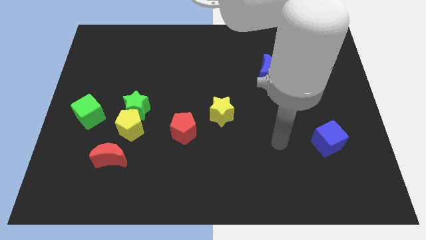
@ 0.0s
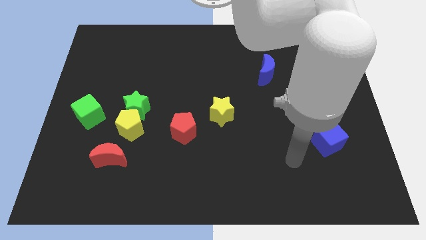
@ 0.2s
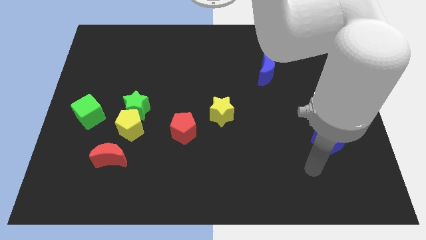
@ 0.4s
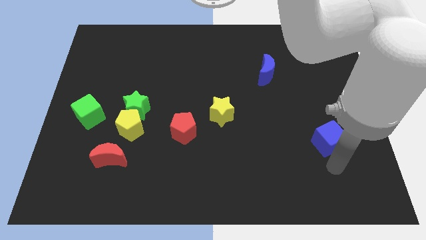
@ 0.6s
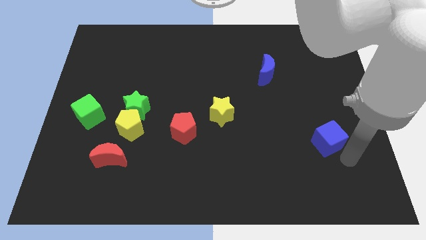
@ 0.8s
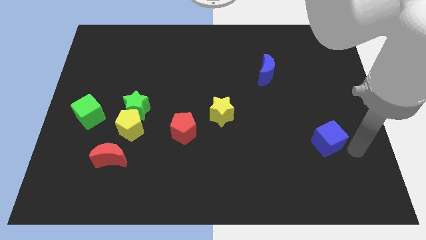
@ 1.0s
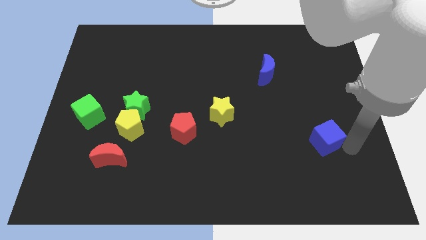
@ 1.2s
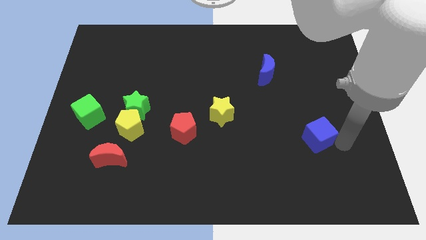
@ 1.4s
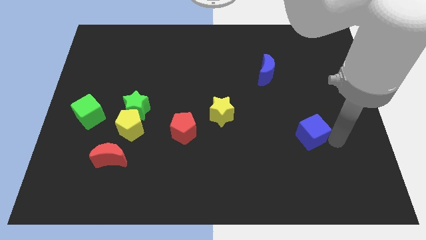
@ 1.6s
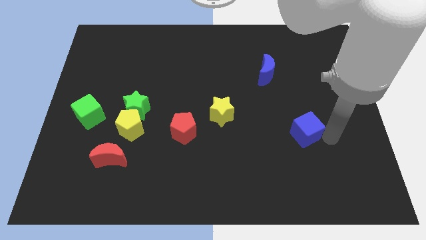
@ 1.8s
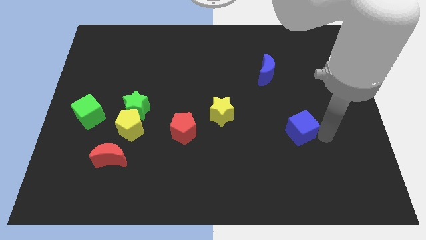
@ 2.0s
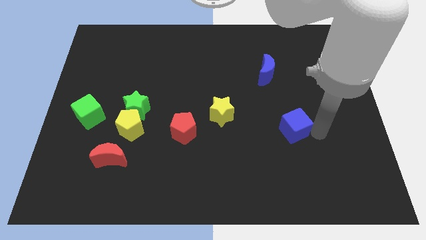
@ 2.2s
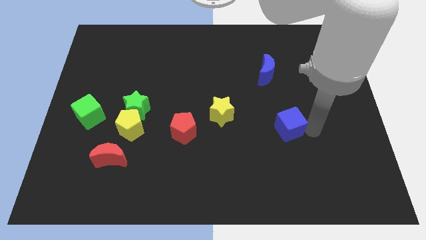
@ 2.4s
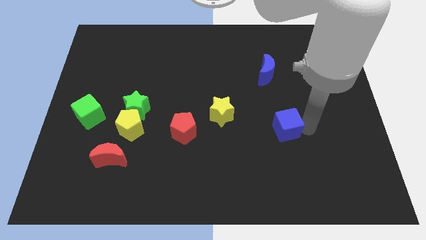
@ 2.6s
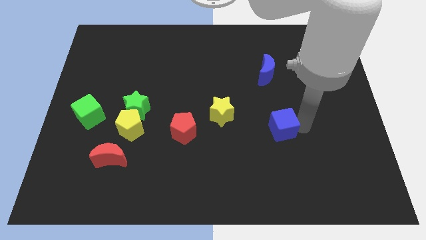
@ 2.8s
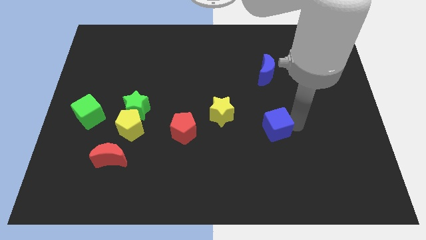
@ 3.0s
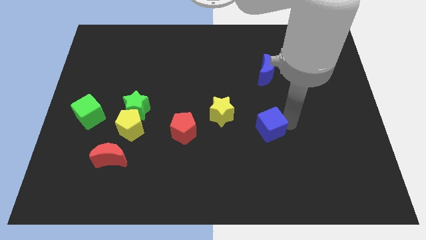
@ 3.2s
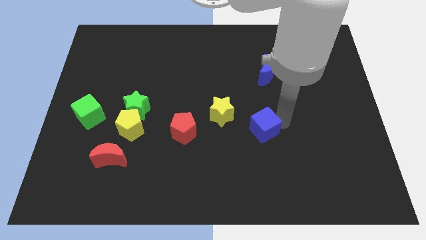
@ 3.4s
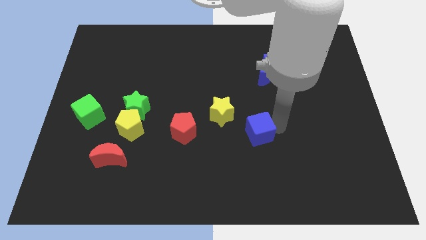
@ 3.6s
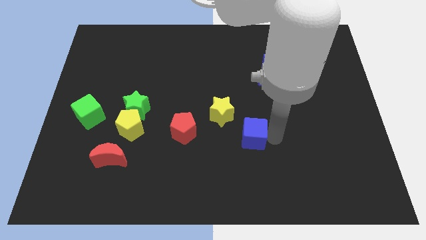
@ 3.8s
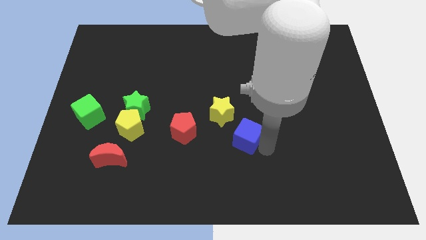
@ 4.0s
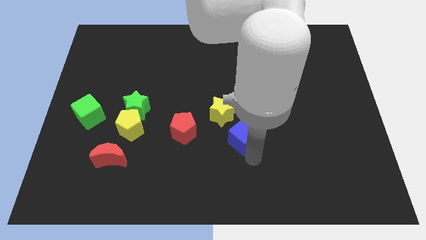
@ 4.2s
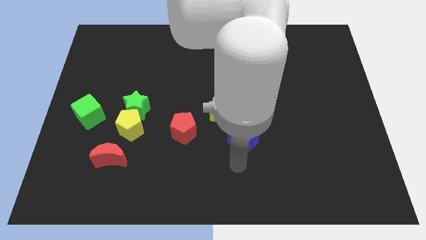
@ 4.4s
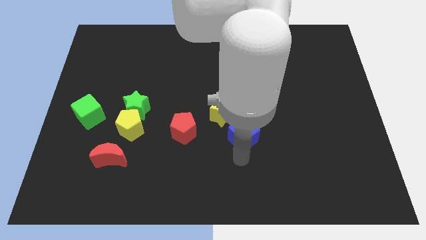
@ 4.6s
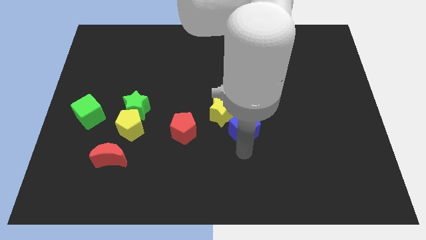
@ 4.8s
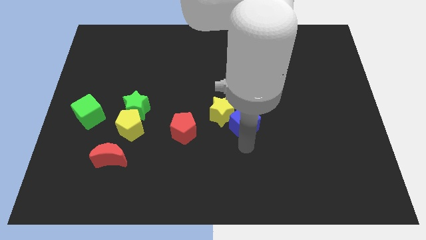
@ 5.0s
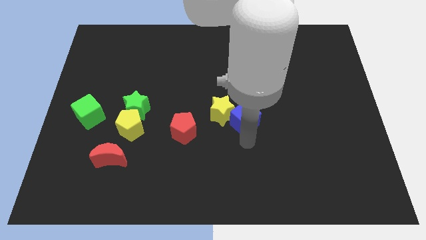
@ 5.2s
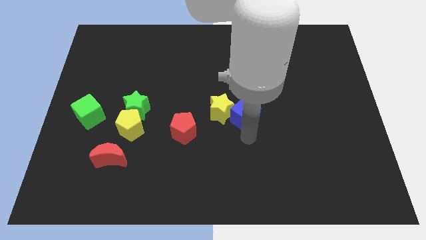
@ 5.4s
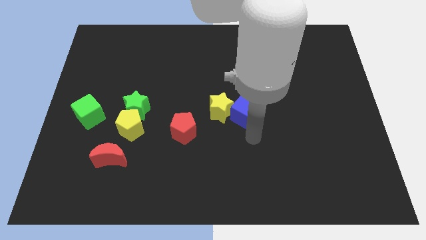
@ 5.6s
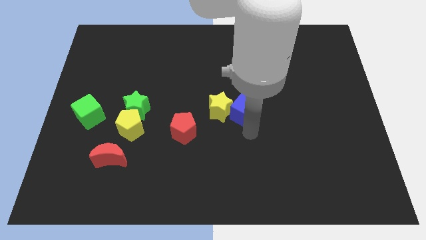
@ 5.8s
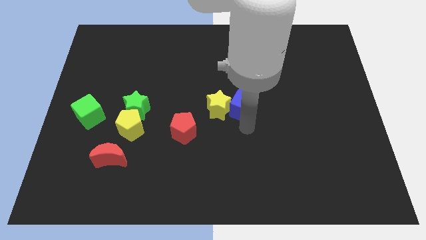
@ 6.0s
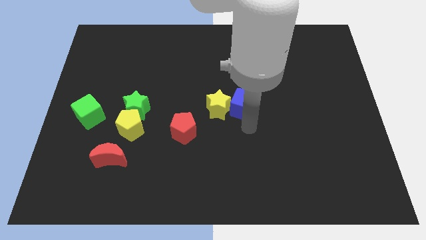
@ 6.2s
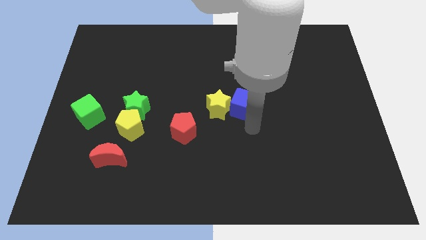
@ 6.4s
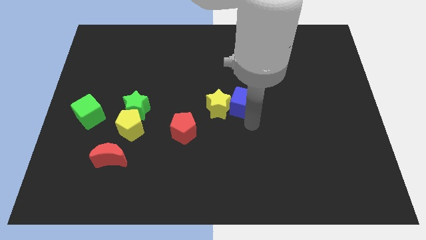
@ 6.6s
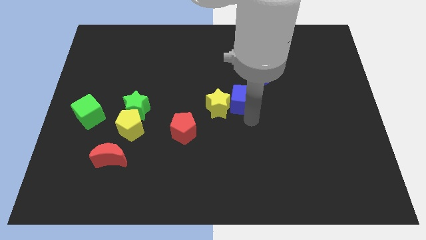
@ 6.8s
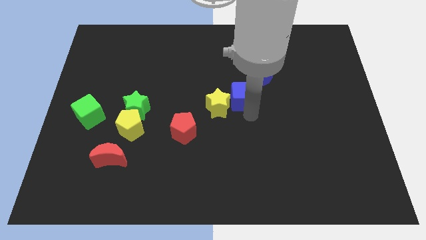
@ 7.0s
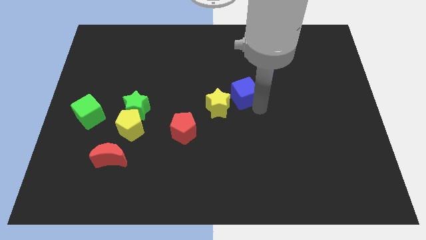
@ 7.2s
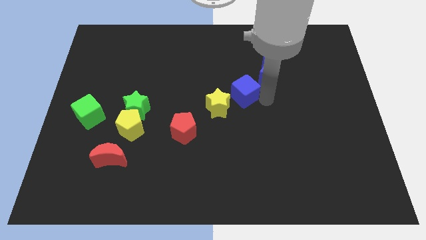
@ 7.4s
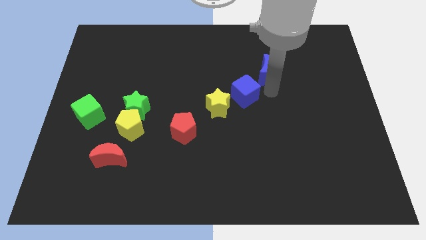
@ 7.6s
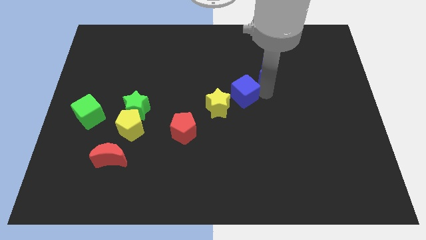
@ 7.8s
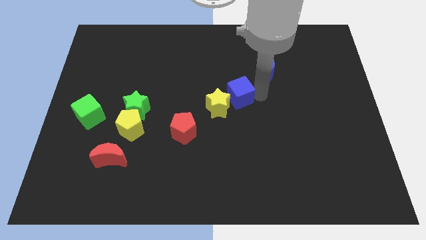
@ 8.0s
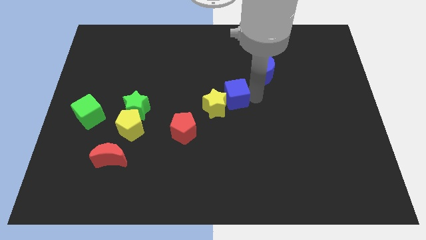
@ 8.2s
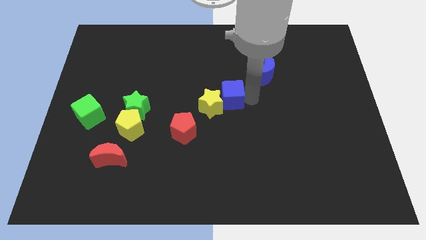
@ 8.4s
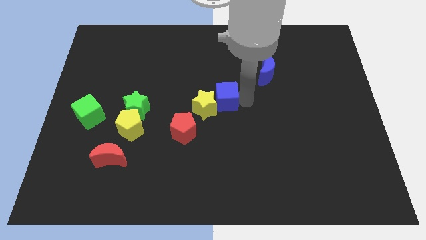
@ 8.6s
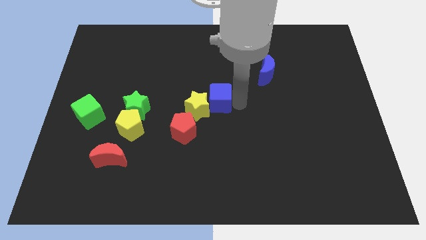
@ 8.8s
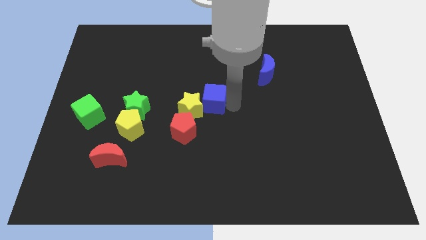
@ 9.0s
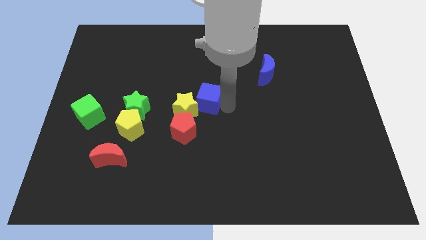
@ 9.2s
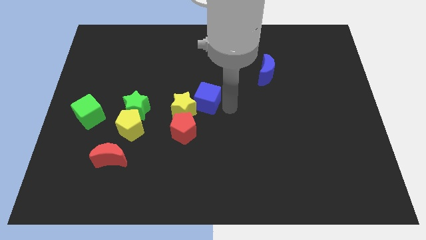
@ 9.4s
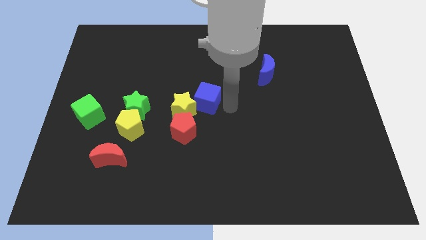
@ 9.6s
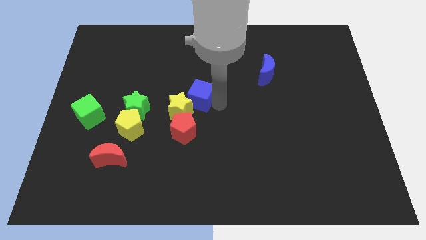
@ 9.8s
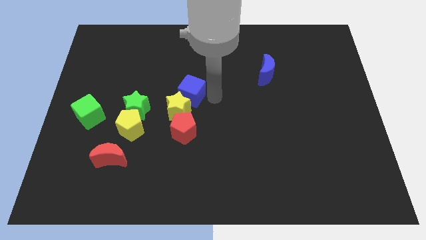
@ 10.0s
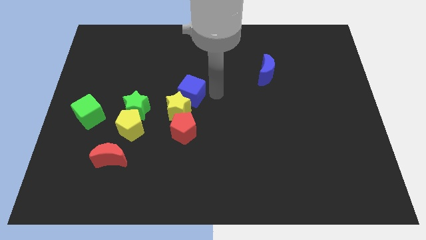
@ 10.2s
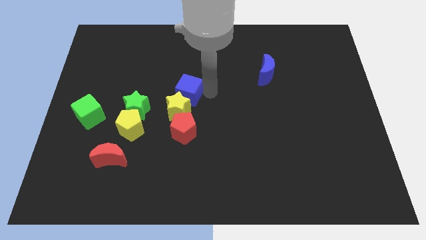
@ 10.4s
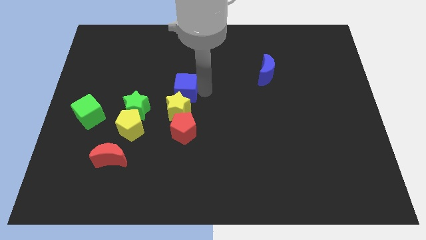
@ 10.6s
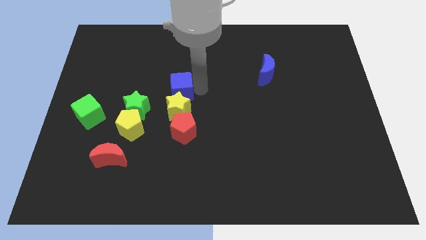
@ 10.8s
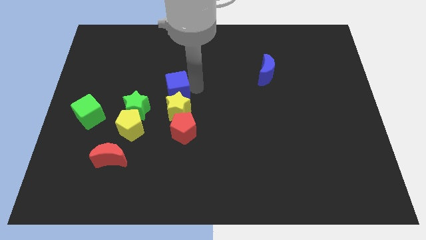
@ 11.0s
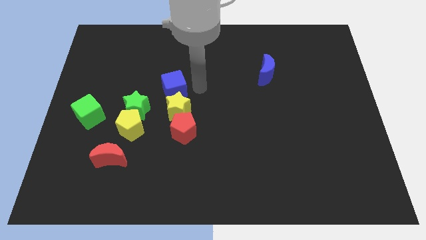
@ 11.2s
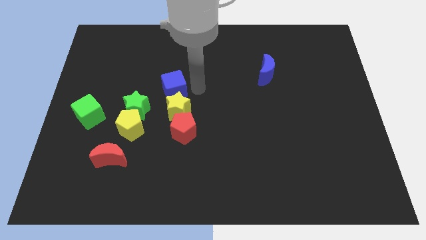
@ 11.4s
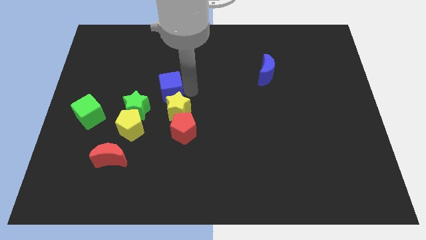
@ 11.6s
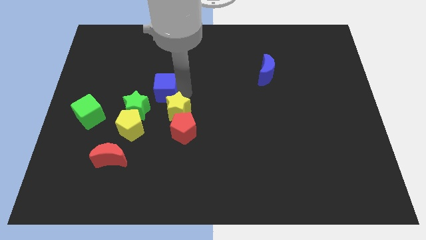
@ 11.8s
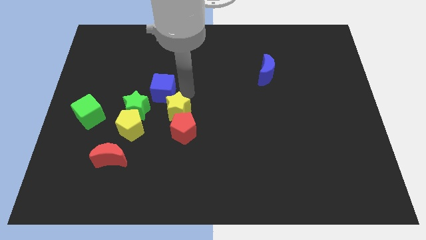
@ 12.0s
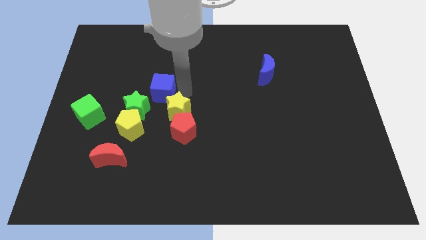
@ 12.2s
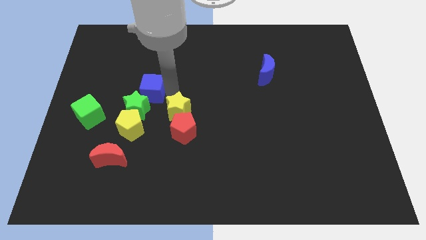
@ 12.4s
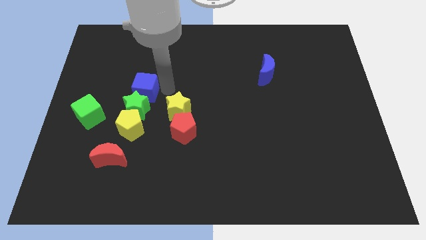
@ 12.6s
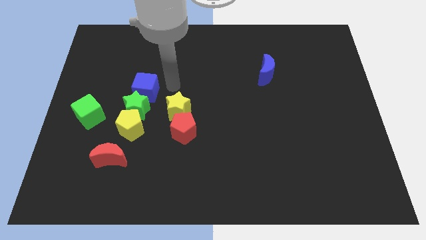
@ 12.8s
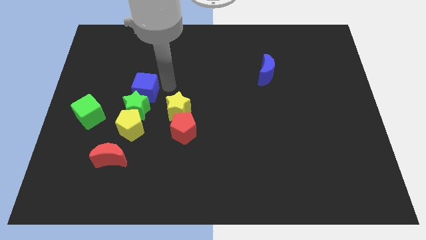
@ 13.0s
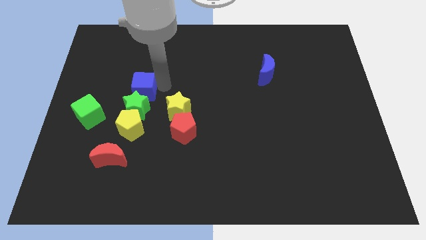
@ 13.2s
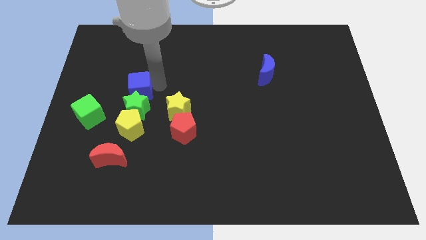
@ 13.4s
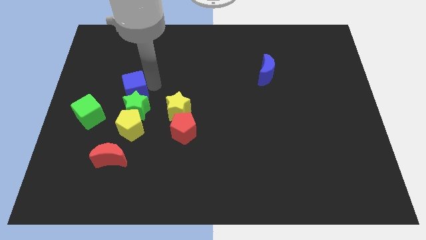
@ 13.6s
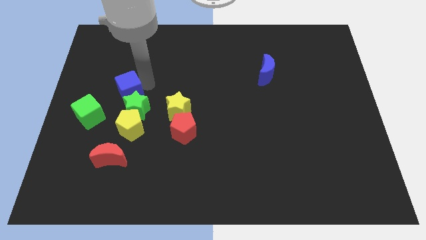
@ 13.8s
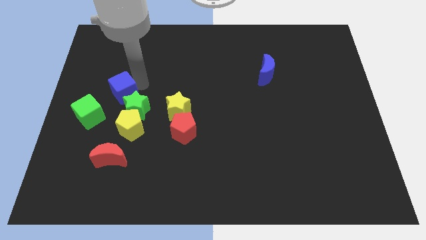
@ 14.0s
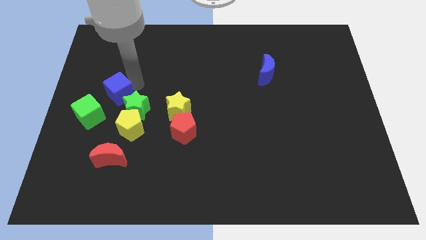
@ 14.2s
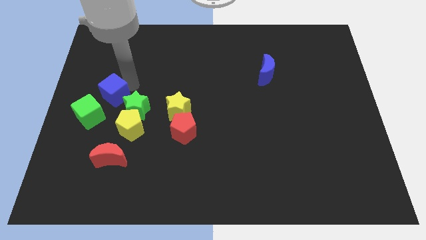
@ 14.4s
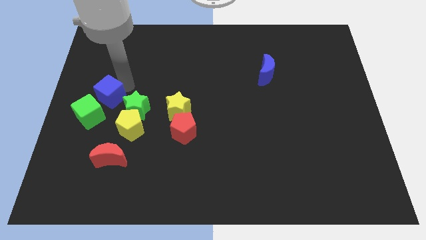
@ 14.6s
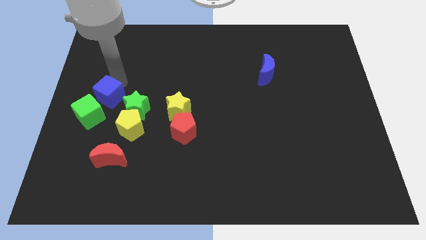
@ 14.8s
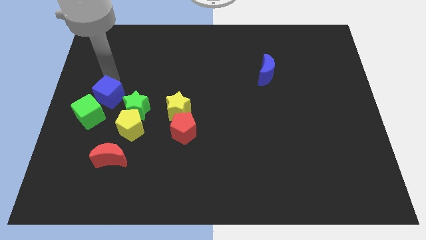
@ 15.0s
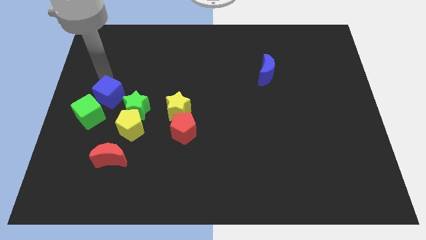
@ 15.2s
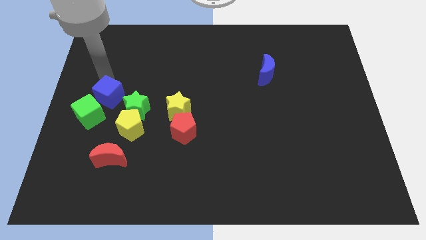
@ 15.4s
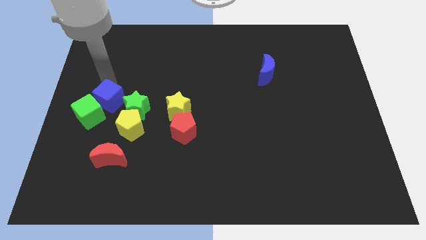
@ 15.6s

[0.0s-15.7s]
push the blue cube to the green cube
